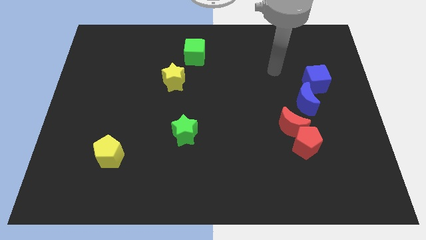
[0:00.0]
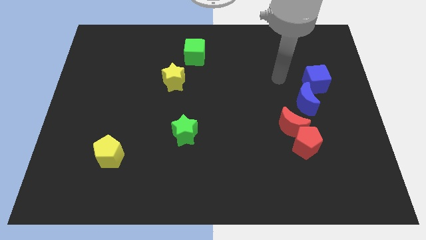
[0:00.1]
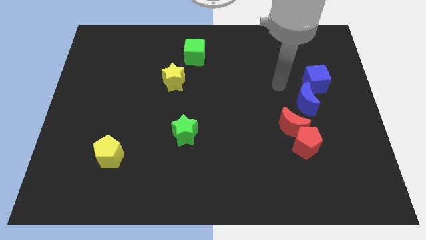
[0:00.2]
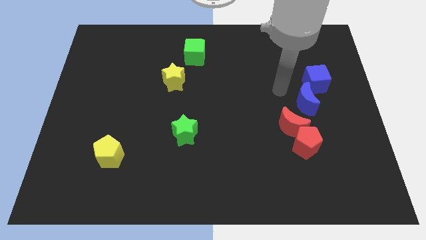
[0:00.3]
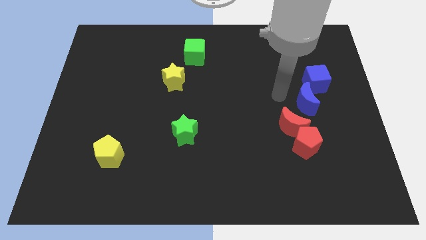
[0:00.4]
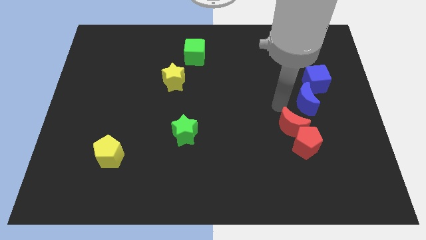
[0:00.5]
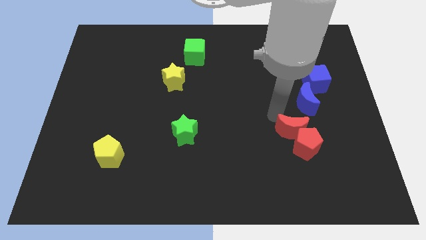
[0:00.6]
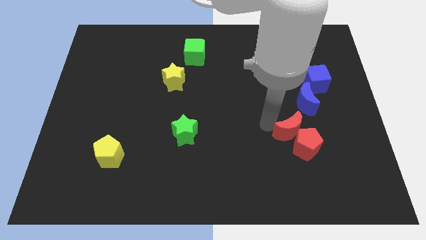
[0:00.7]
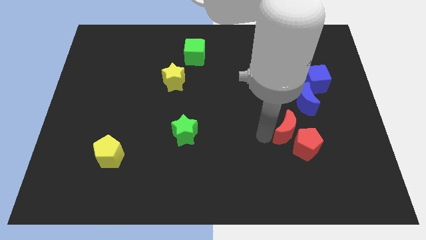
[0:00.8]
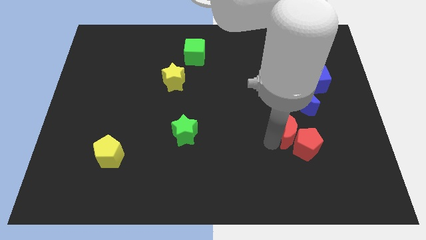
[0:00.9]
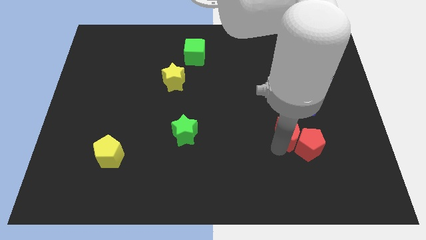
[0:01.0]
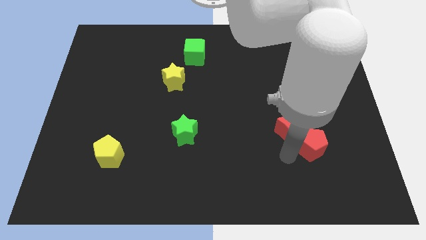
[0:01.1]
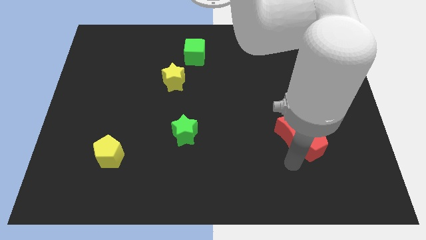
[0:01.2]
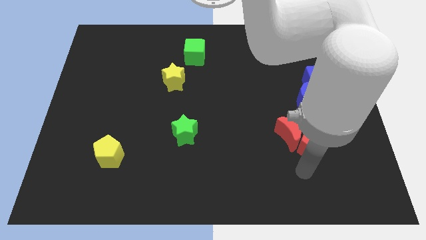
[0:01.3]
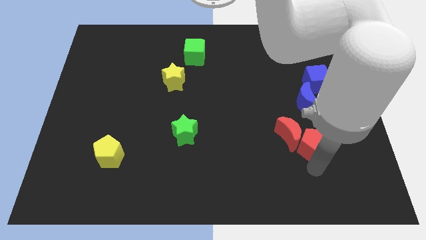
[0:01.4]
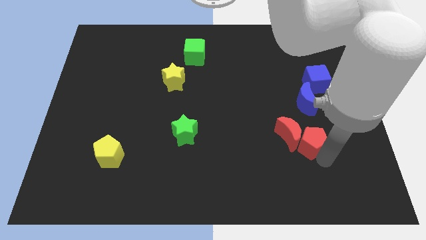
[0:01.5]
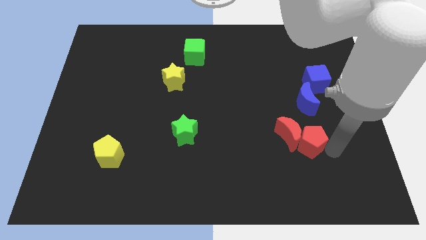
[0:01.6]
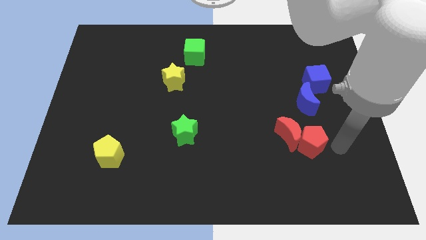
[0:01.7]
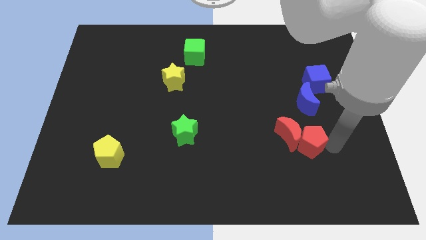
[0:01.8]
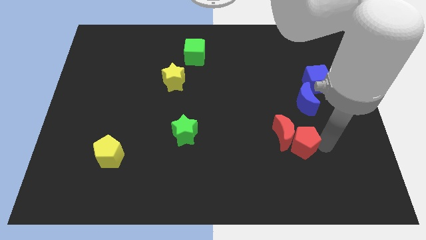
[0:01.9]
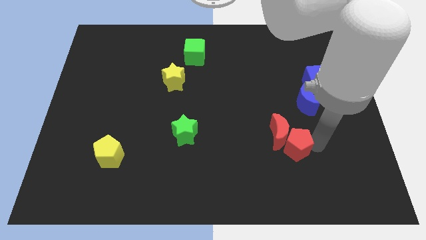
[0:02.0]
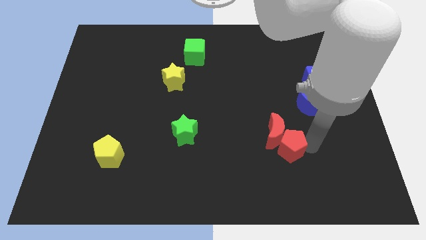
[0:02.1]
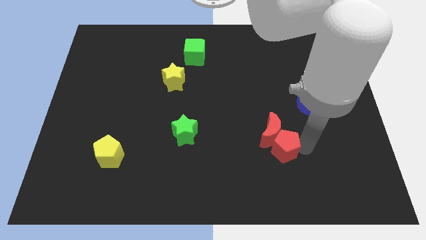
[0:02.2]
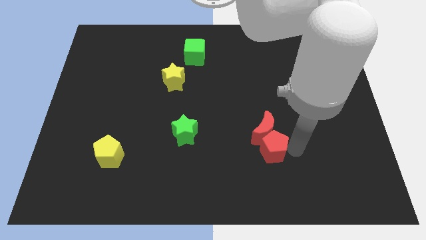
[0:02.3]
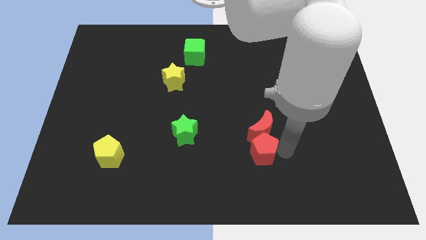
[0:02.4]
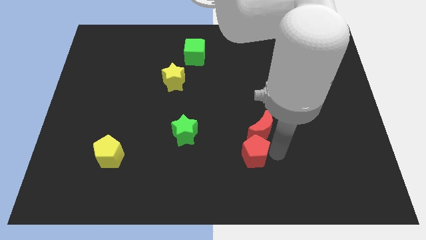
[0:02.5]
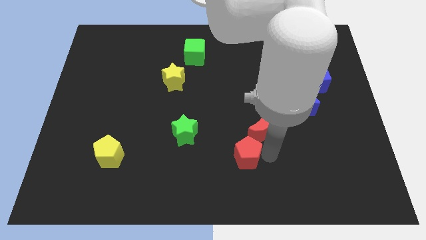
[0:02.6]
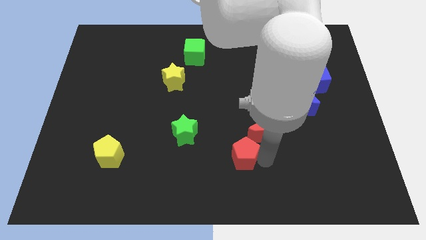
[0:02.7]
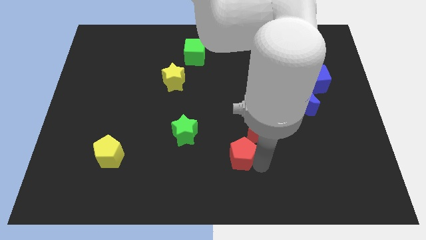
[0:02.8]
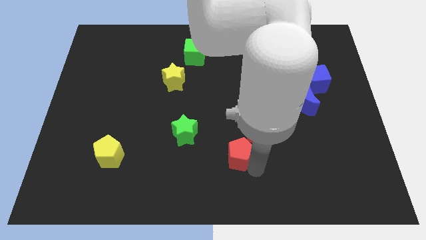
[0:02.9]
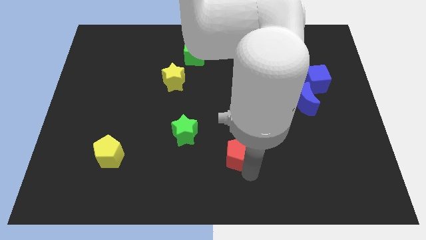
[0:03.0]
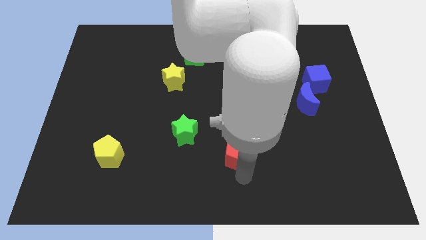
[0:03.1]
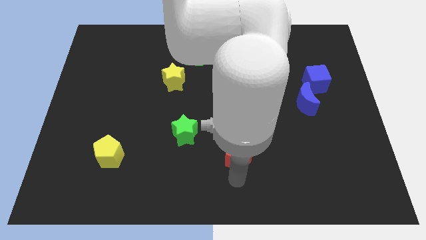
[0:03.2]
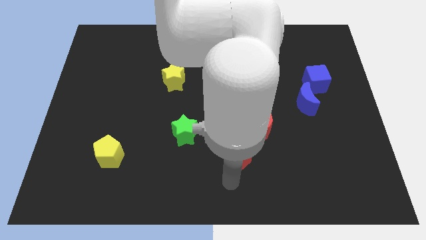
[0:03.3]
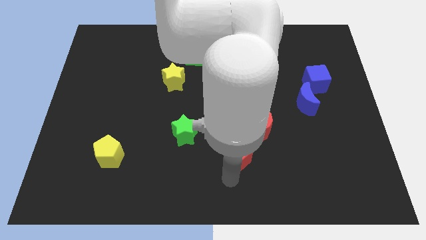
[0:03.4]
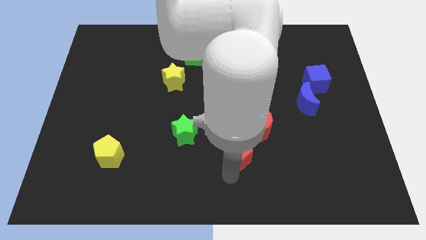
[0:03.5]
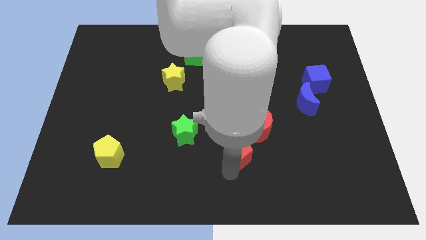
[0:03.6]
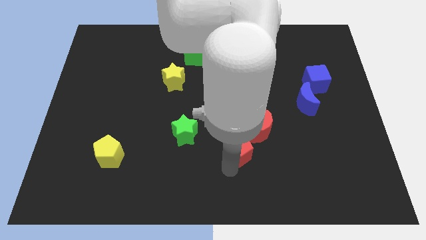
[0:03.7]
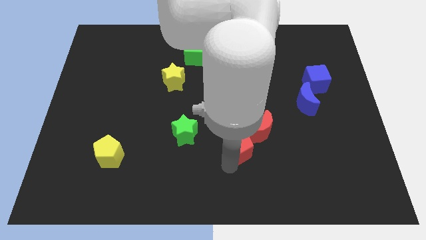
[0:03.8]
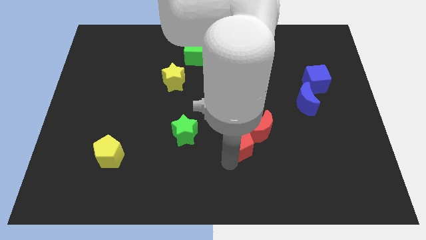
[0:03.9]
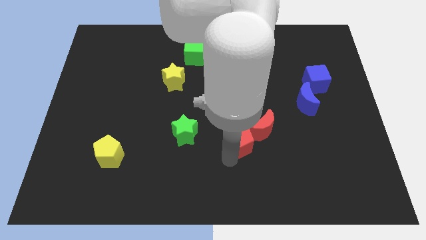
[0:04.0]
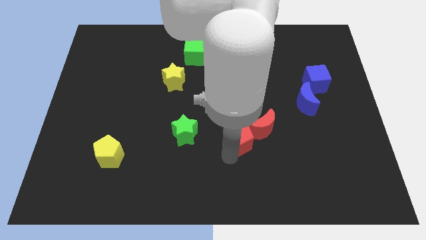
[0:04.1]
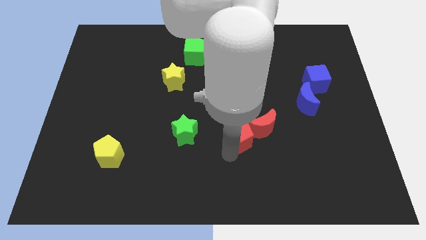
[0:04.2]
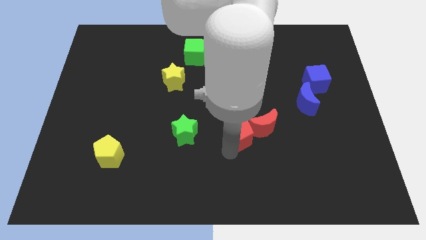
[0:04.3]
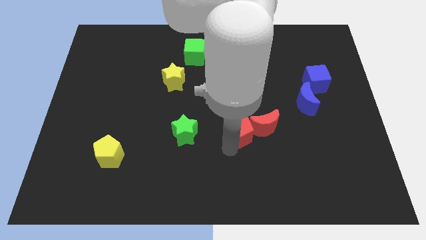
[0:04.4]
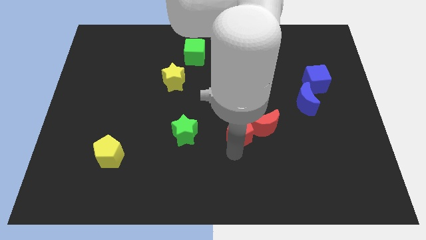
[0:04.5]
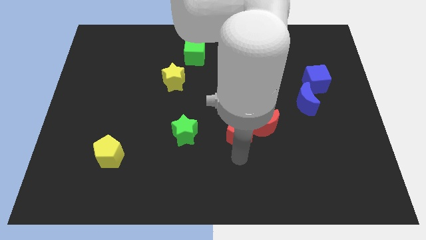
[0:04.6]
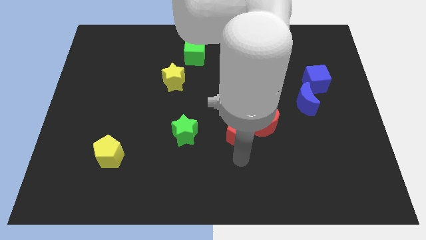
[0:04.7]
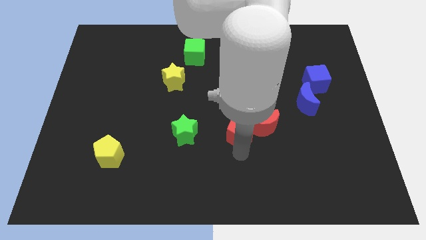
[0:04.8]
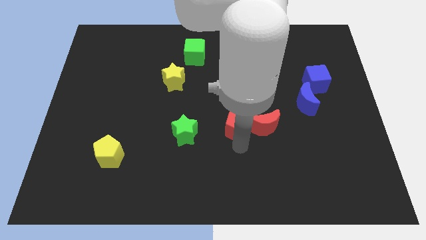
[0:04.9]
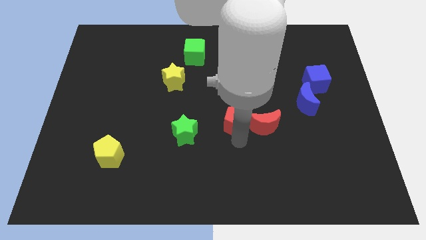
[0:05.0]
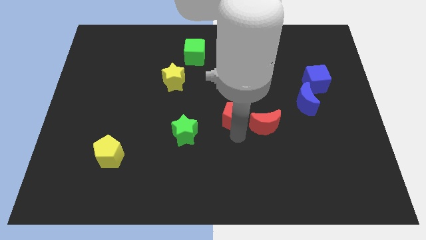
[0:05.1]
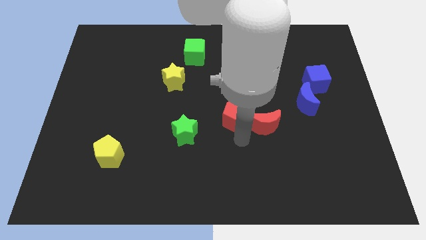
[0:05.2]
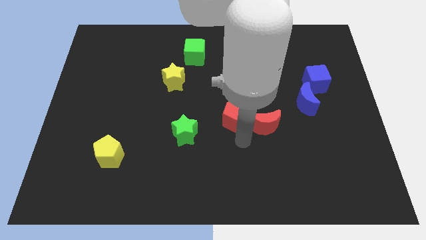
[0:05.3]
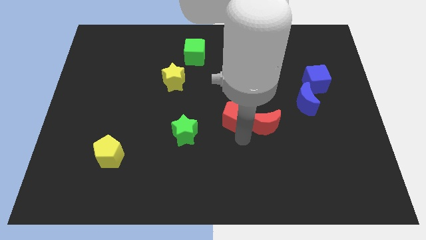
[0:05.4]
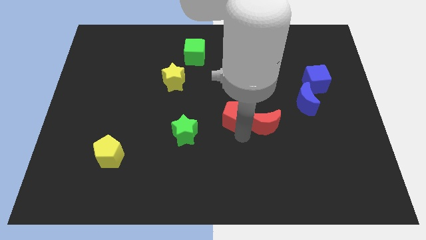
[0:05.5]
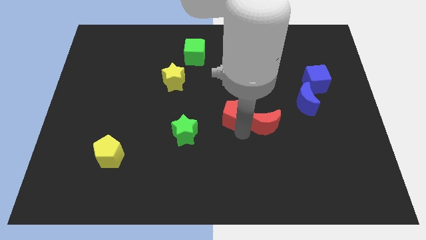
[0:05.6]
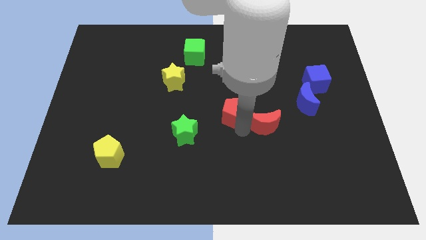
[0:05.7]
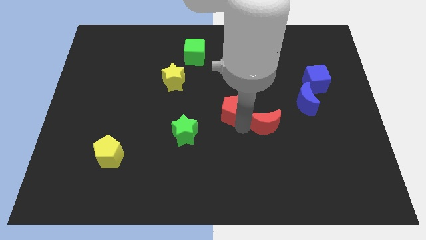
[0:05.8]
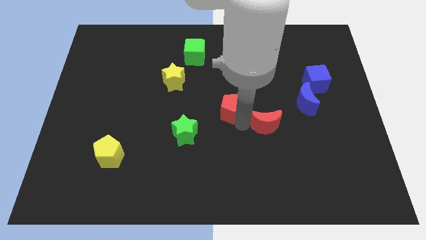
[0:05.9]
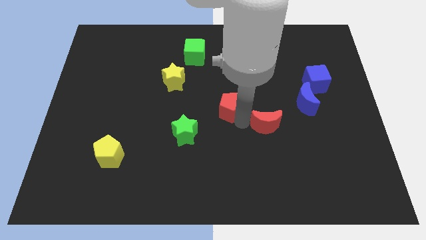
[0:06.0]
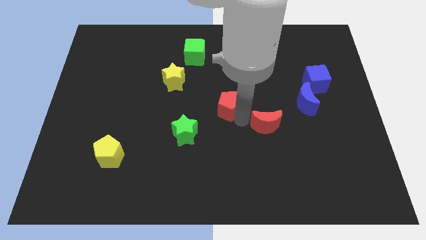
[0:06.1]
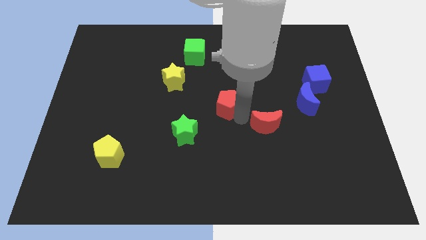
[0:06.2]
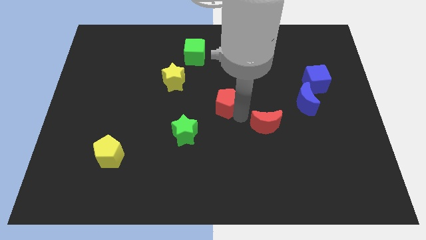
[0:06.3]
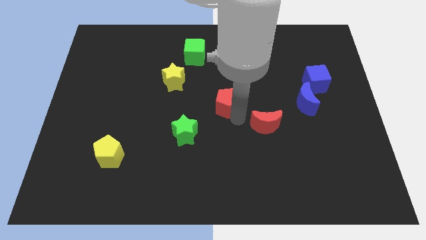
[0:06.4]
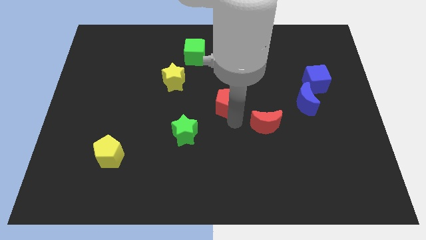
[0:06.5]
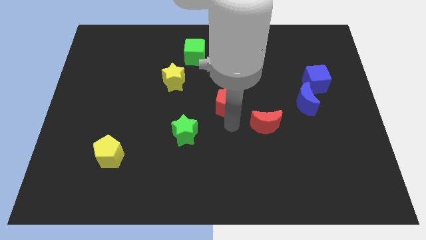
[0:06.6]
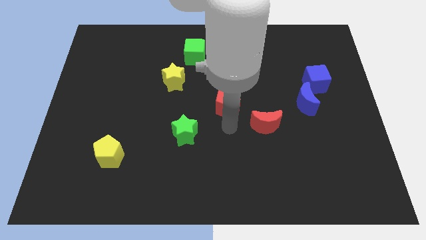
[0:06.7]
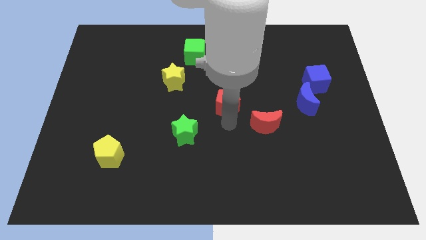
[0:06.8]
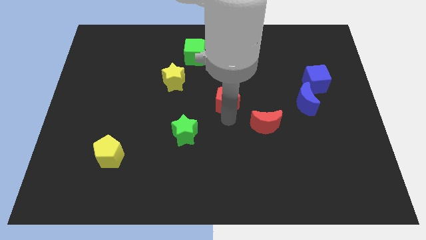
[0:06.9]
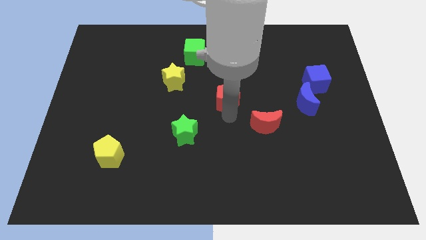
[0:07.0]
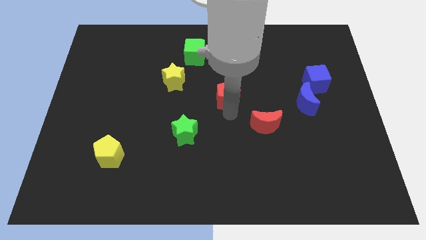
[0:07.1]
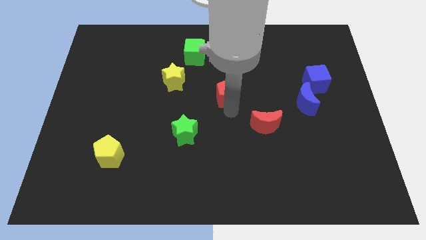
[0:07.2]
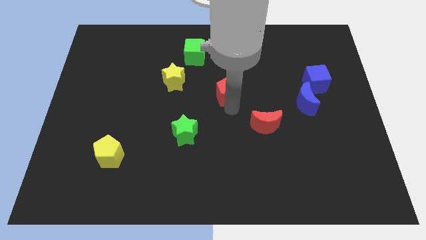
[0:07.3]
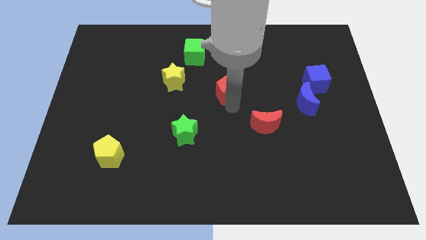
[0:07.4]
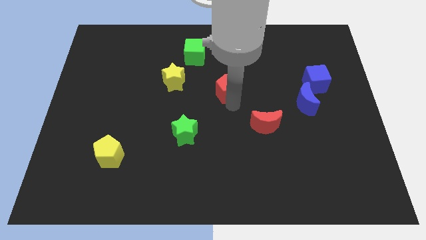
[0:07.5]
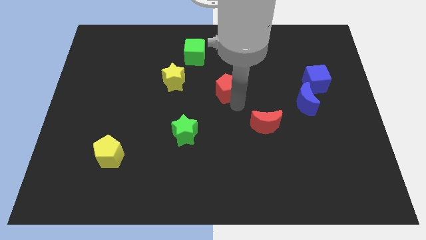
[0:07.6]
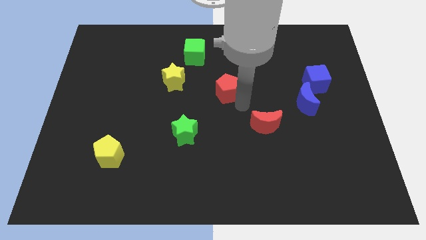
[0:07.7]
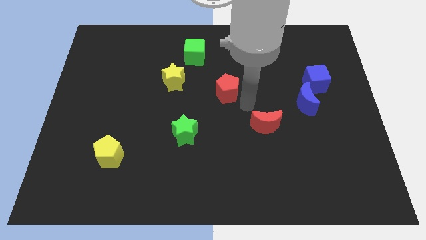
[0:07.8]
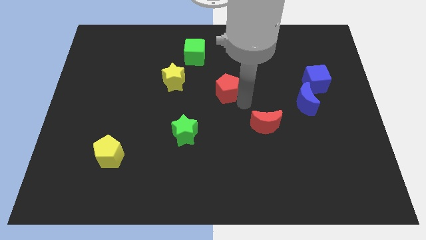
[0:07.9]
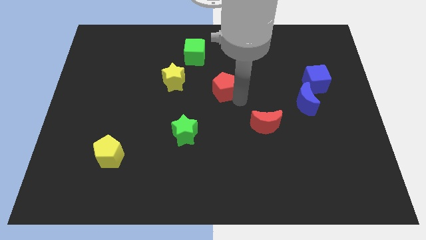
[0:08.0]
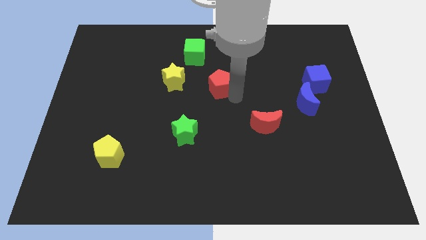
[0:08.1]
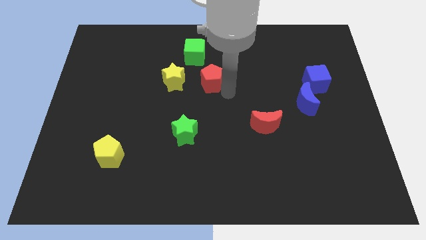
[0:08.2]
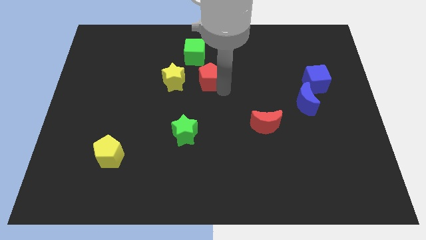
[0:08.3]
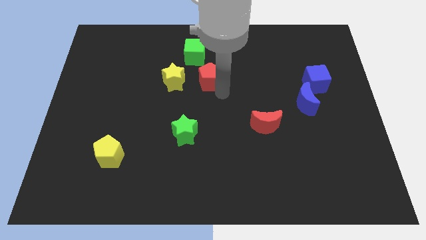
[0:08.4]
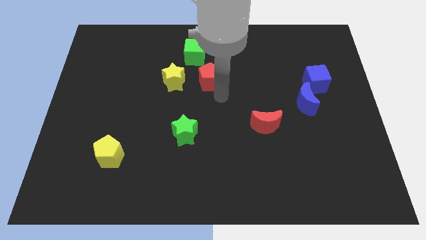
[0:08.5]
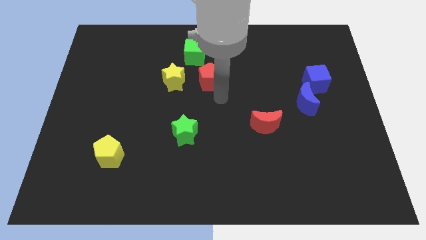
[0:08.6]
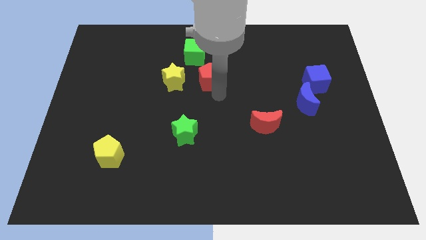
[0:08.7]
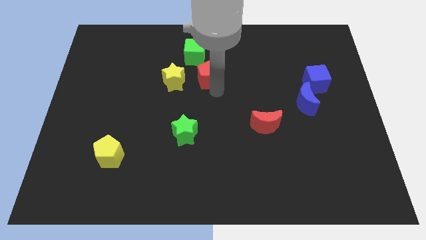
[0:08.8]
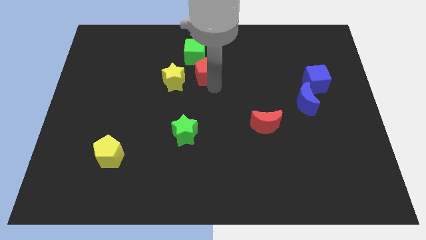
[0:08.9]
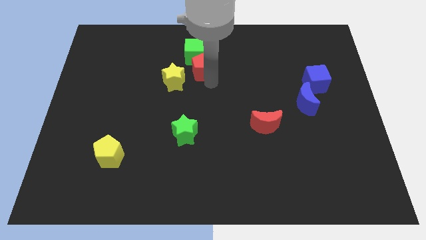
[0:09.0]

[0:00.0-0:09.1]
put the red pentagon next to the green cube
